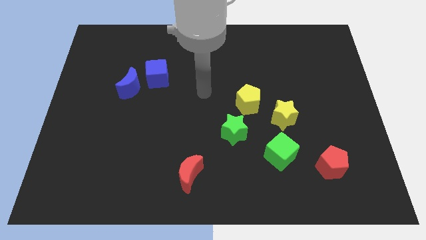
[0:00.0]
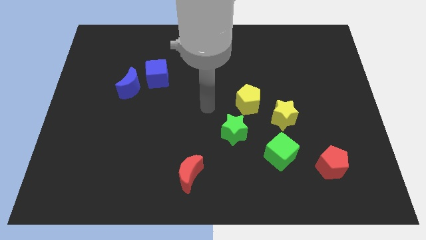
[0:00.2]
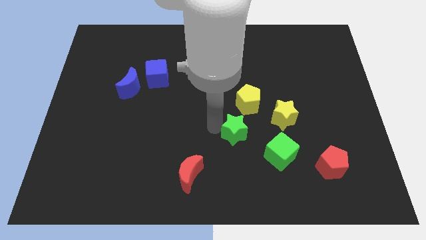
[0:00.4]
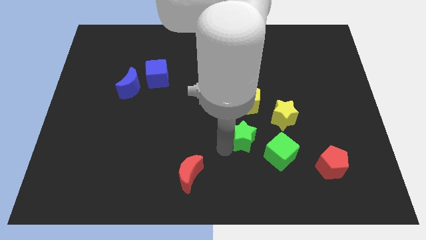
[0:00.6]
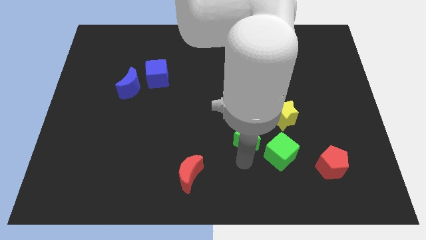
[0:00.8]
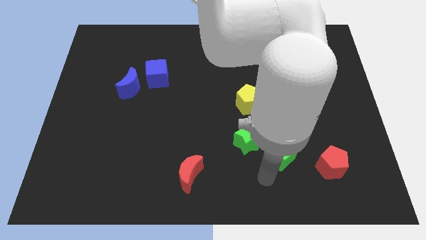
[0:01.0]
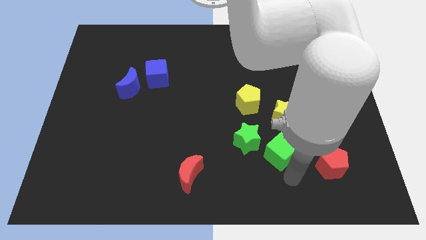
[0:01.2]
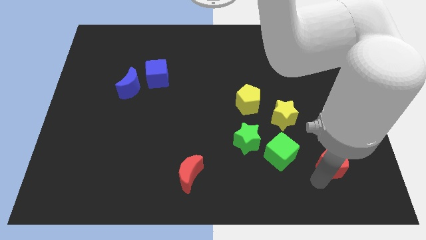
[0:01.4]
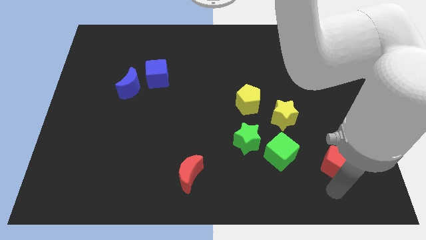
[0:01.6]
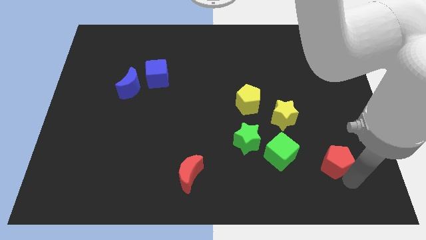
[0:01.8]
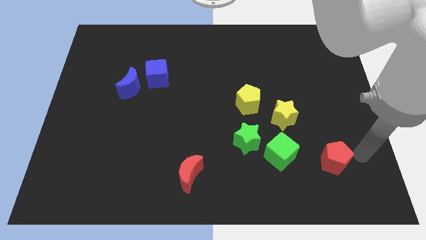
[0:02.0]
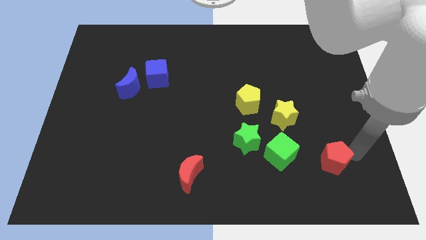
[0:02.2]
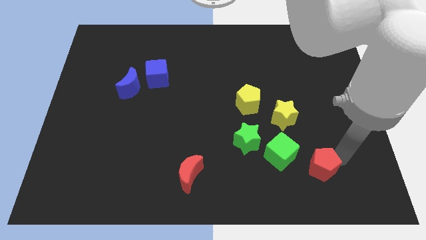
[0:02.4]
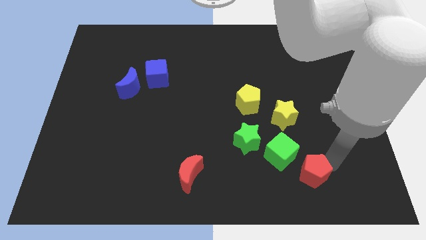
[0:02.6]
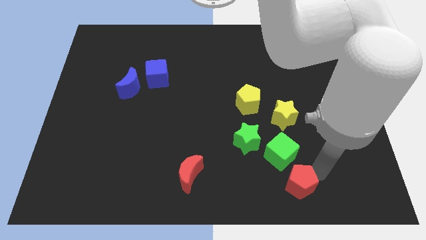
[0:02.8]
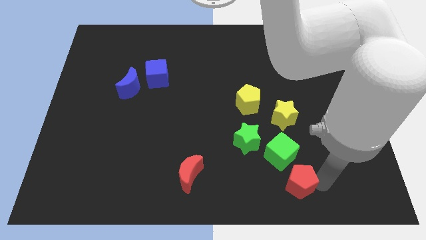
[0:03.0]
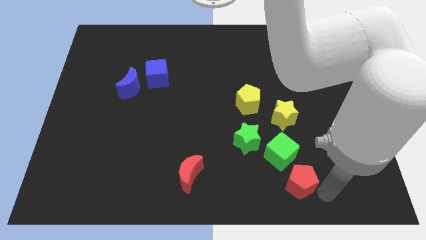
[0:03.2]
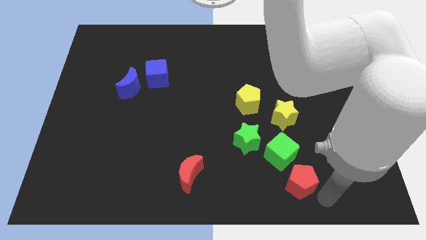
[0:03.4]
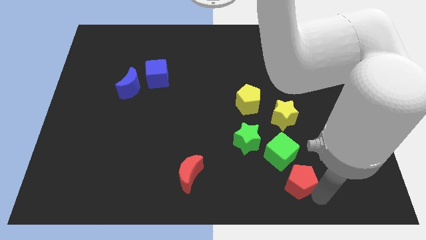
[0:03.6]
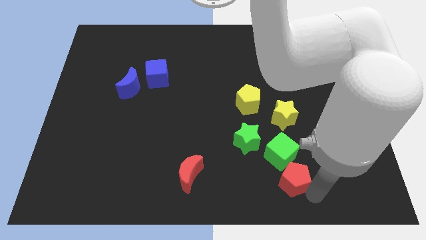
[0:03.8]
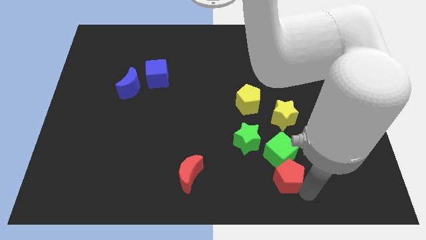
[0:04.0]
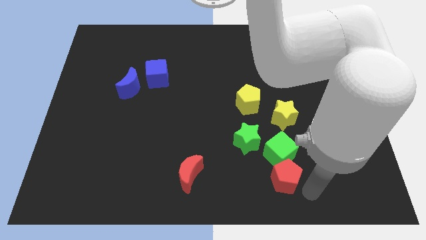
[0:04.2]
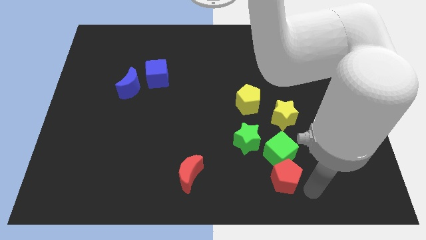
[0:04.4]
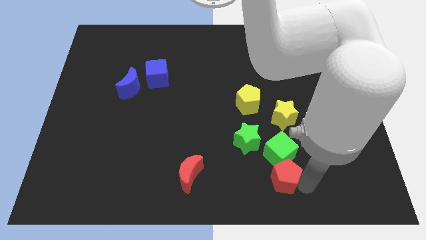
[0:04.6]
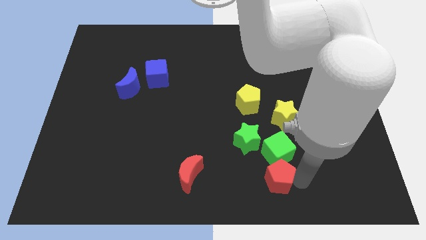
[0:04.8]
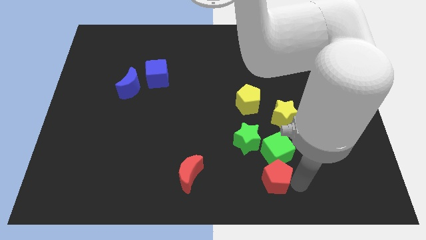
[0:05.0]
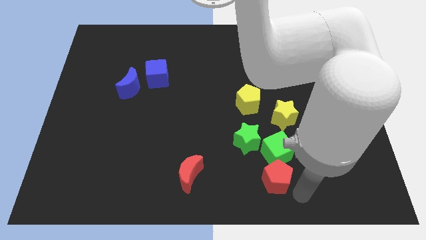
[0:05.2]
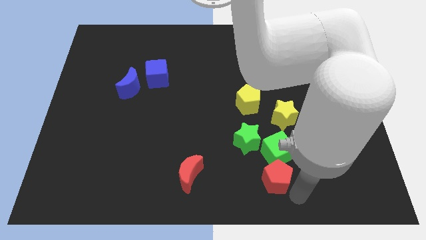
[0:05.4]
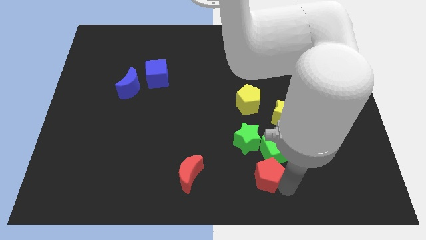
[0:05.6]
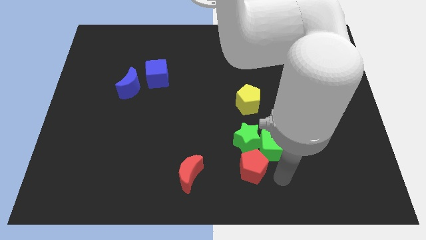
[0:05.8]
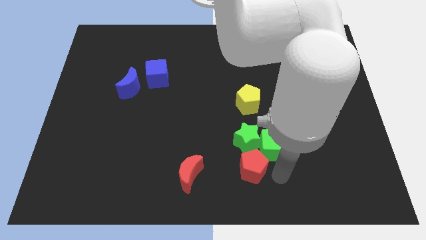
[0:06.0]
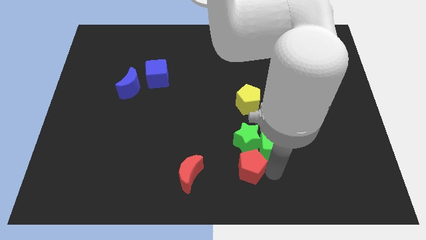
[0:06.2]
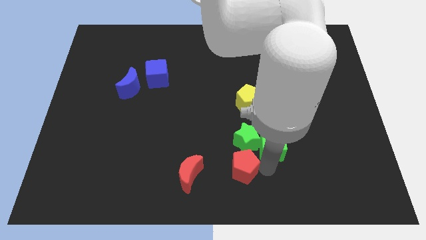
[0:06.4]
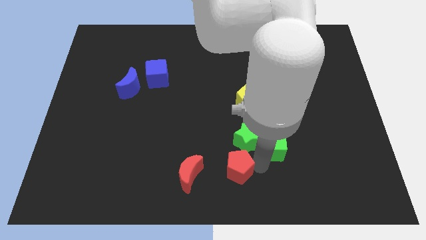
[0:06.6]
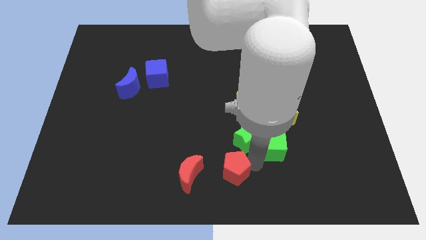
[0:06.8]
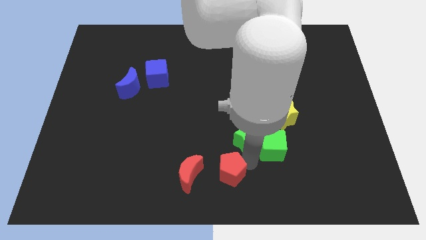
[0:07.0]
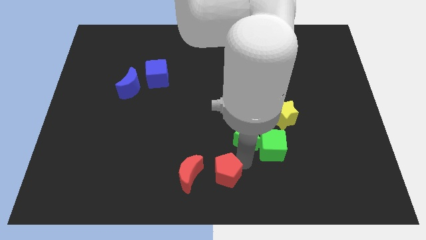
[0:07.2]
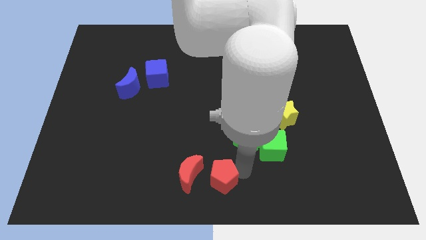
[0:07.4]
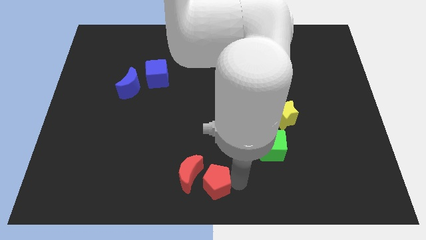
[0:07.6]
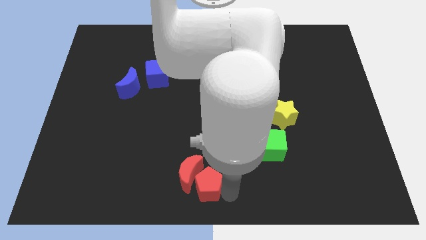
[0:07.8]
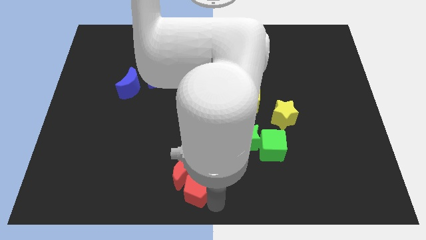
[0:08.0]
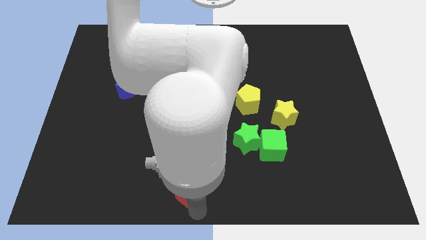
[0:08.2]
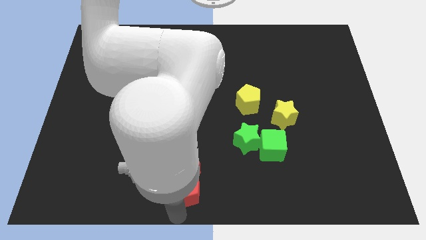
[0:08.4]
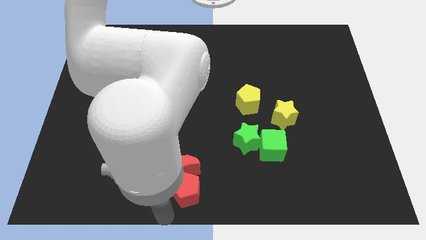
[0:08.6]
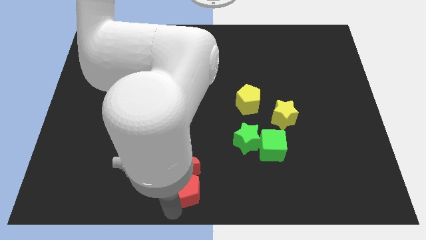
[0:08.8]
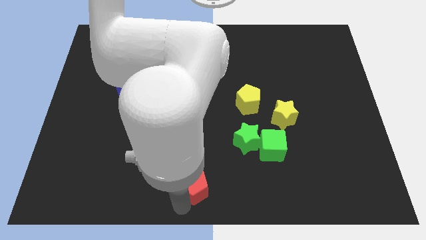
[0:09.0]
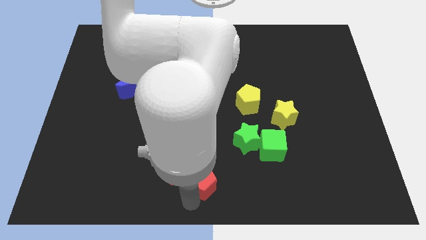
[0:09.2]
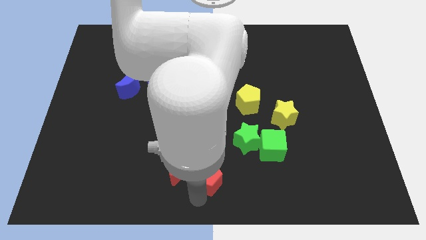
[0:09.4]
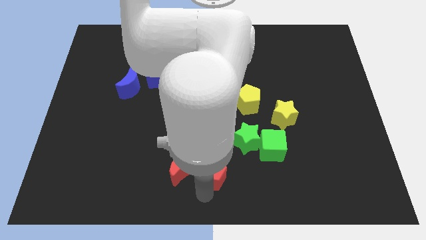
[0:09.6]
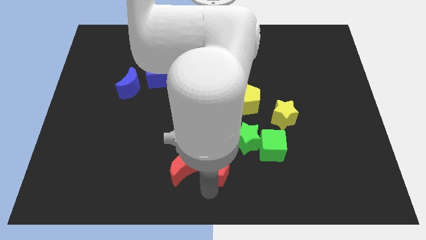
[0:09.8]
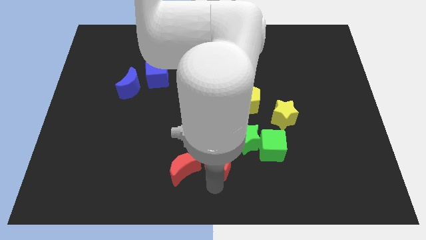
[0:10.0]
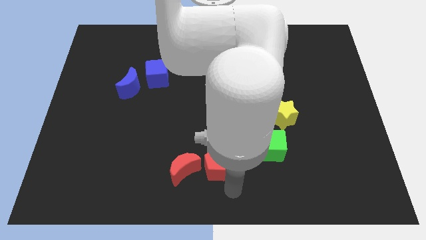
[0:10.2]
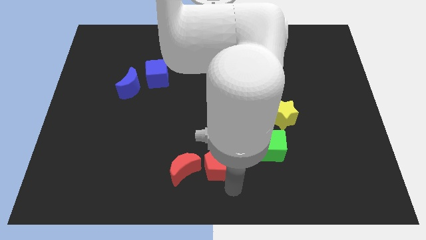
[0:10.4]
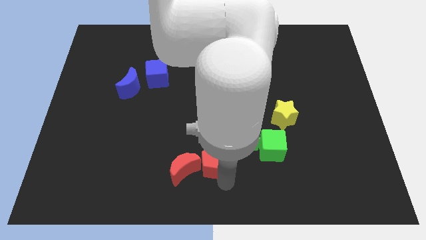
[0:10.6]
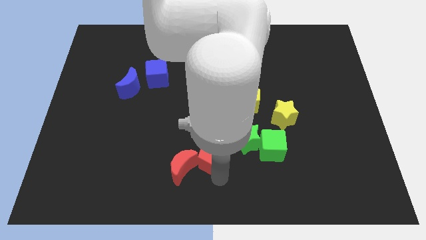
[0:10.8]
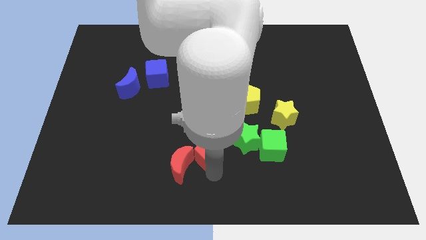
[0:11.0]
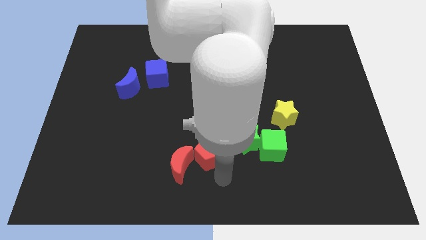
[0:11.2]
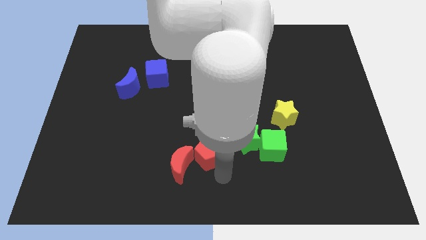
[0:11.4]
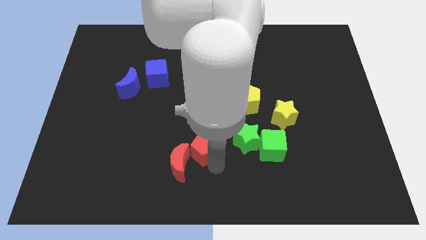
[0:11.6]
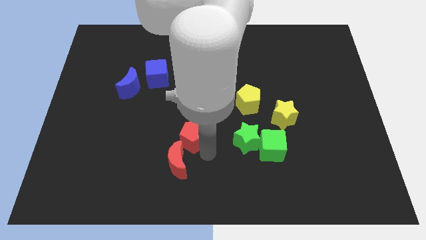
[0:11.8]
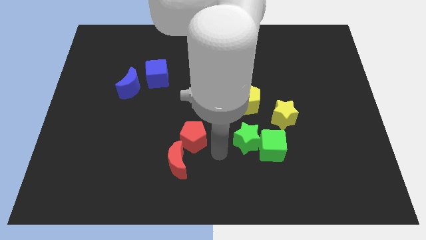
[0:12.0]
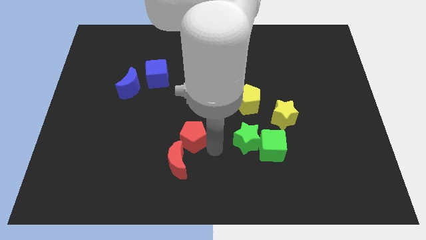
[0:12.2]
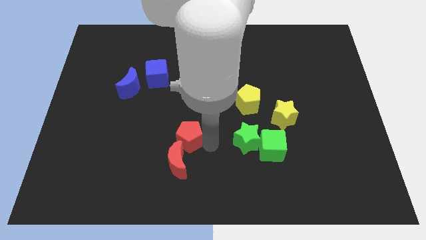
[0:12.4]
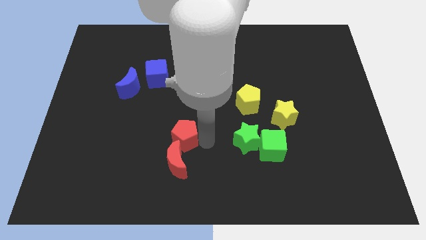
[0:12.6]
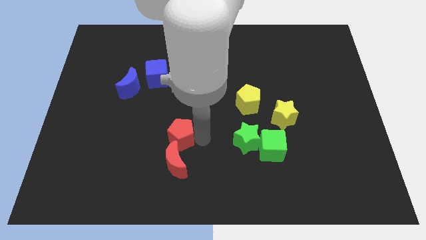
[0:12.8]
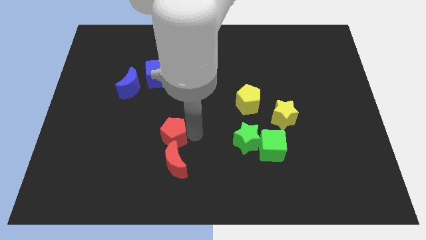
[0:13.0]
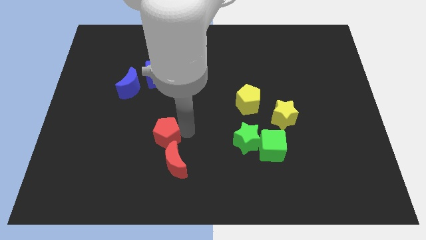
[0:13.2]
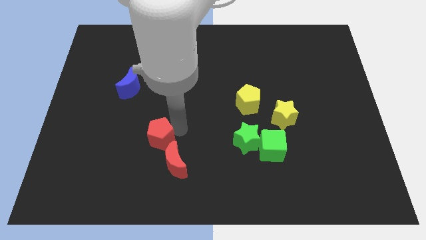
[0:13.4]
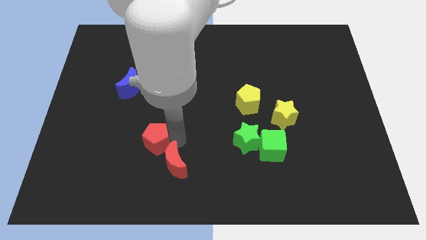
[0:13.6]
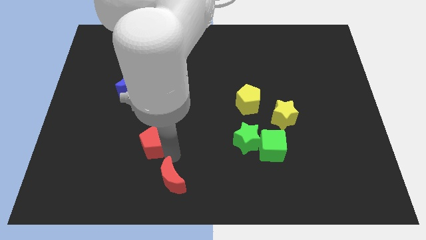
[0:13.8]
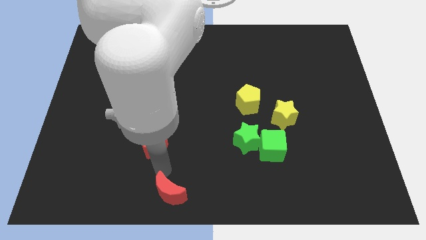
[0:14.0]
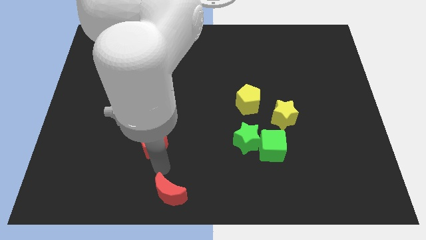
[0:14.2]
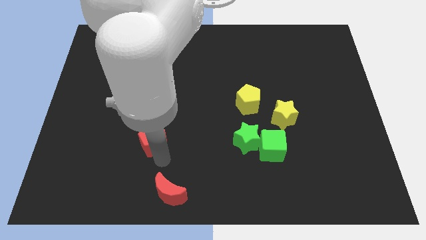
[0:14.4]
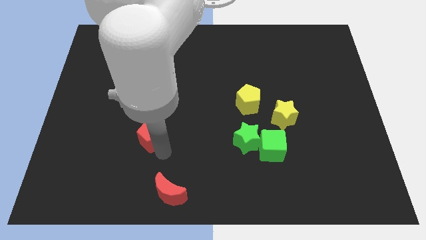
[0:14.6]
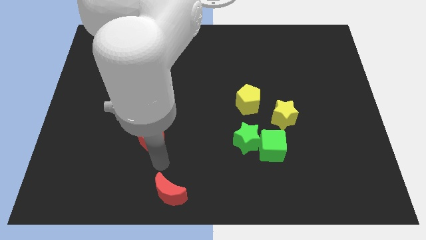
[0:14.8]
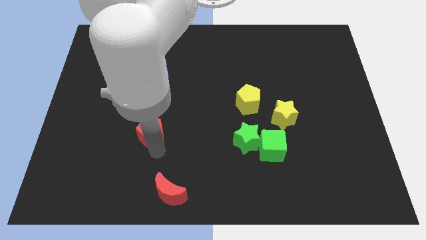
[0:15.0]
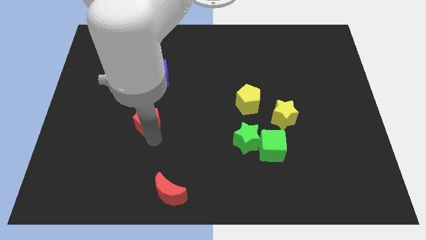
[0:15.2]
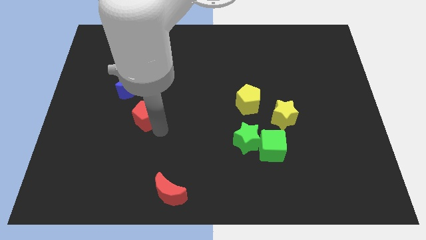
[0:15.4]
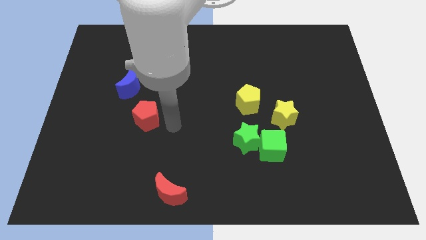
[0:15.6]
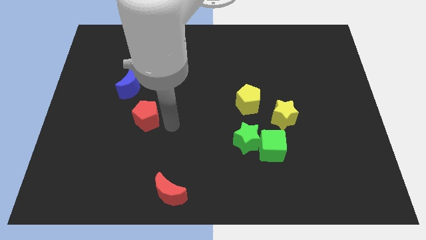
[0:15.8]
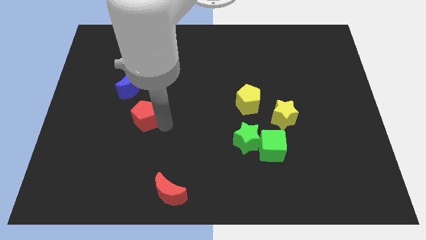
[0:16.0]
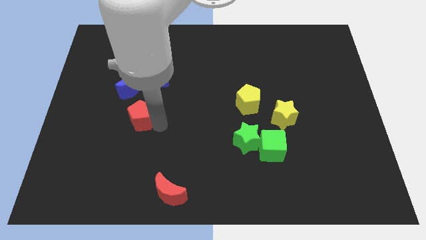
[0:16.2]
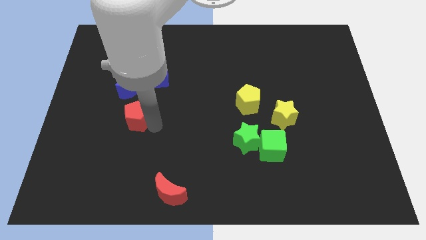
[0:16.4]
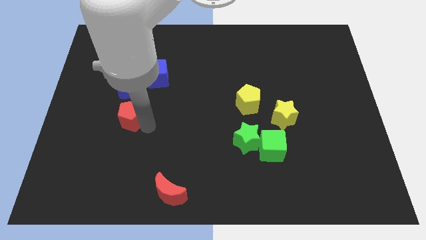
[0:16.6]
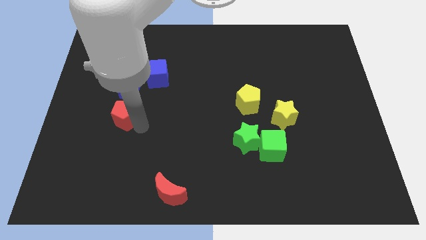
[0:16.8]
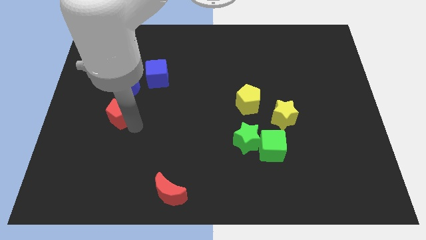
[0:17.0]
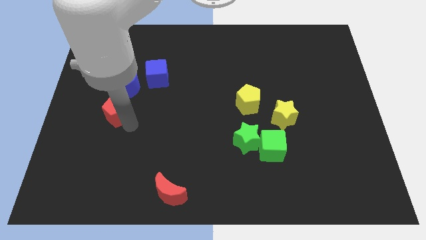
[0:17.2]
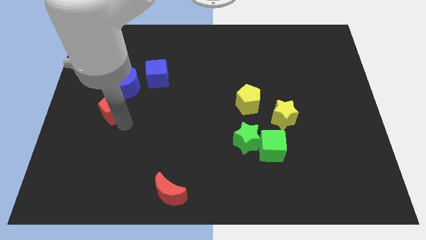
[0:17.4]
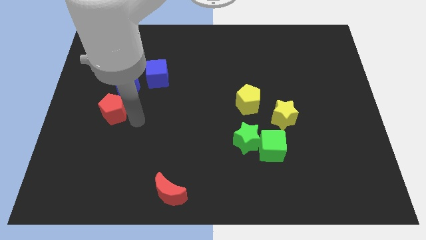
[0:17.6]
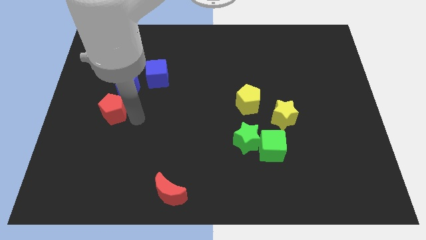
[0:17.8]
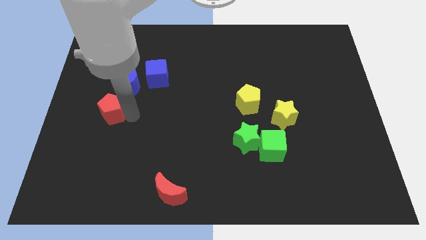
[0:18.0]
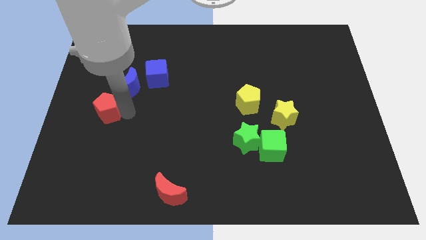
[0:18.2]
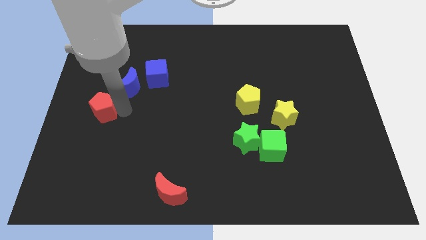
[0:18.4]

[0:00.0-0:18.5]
push the red pentagon to the center left
